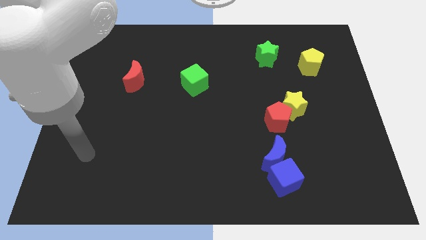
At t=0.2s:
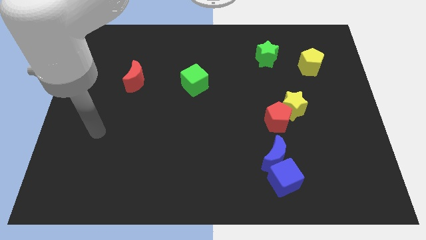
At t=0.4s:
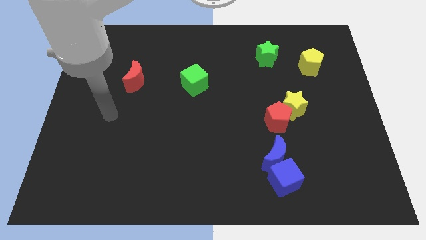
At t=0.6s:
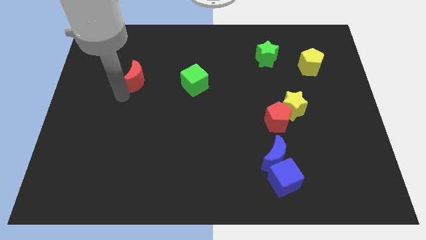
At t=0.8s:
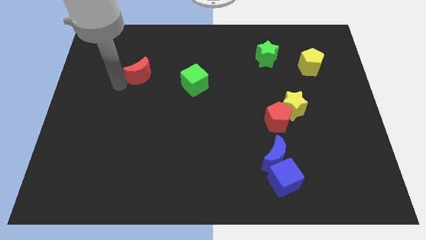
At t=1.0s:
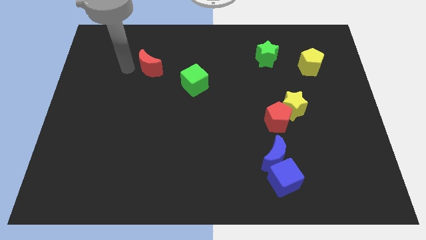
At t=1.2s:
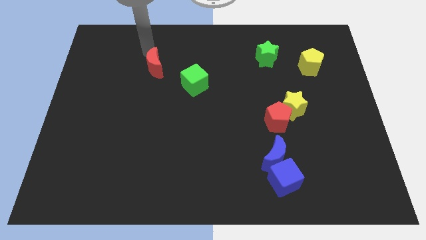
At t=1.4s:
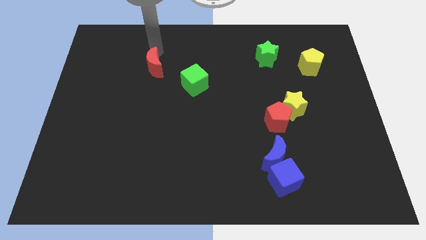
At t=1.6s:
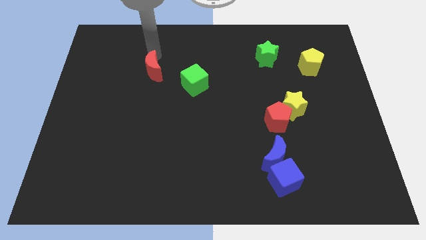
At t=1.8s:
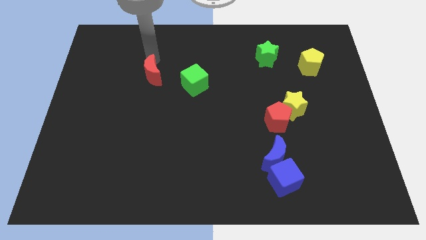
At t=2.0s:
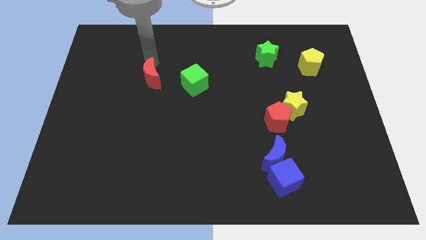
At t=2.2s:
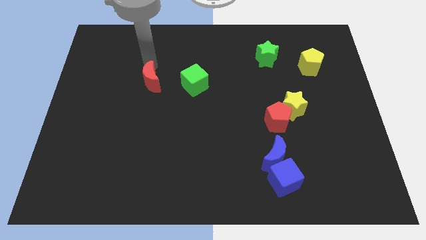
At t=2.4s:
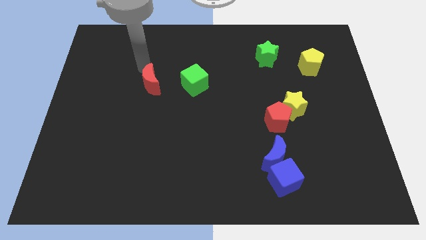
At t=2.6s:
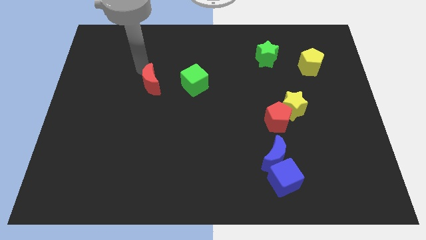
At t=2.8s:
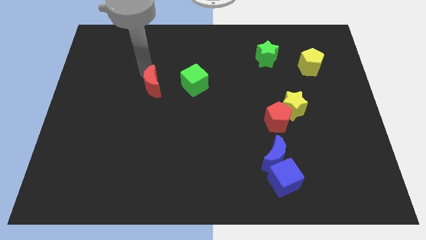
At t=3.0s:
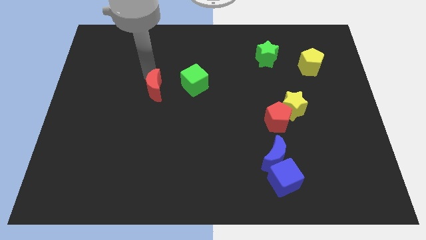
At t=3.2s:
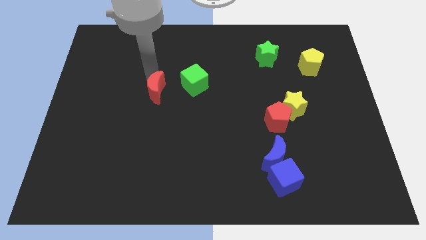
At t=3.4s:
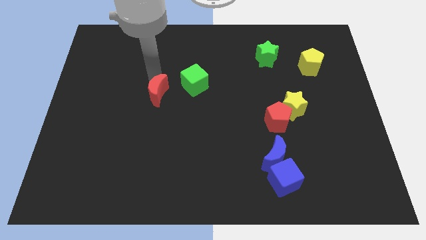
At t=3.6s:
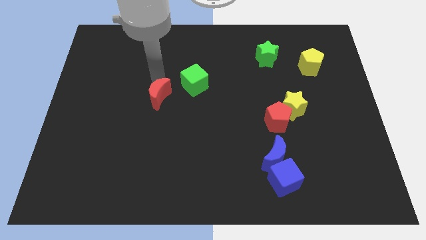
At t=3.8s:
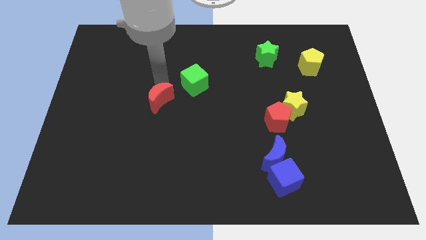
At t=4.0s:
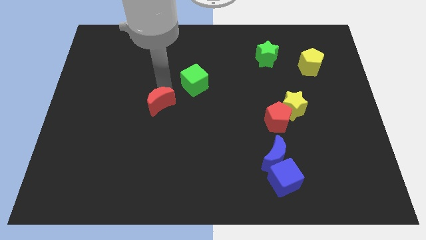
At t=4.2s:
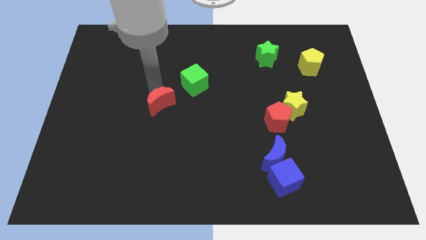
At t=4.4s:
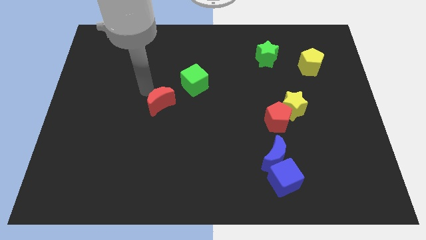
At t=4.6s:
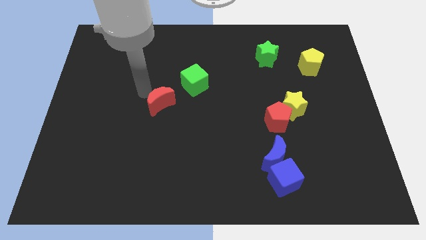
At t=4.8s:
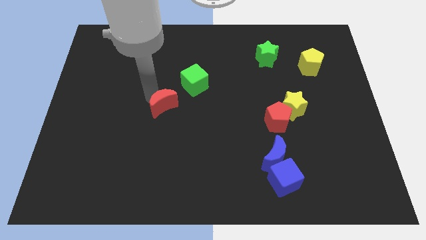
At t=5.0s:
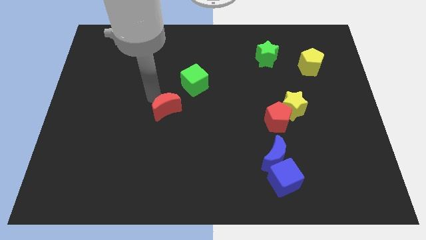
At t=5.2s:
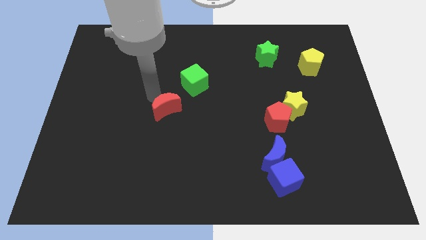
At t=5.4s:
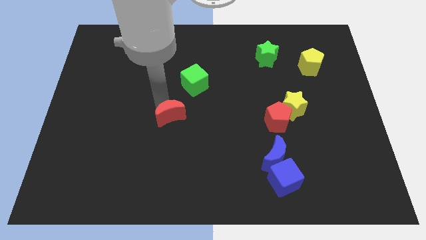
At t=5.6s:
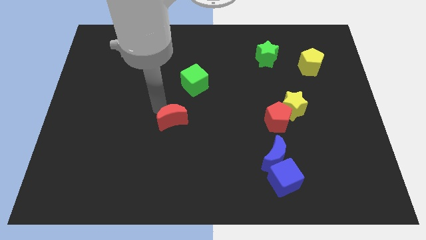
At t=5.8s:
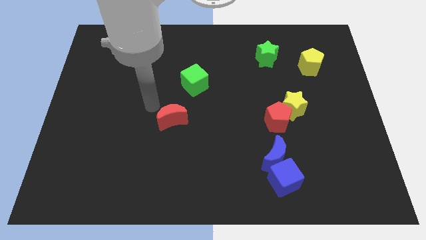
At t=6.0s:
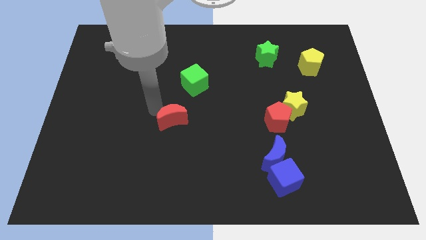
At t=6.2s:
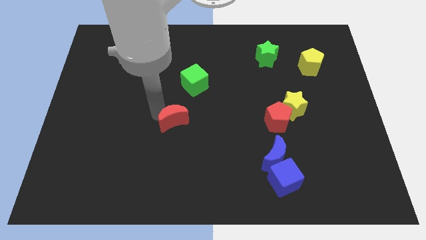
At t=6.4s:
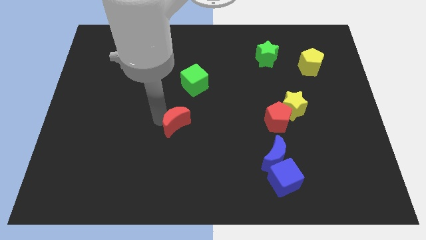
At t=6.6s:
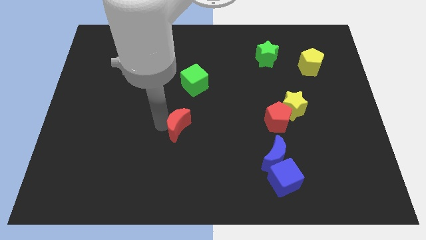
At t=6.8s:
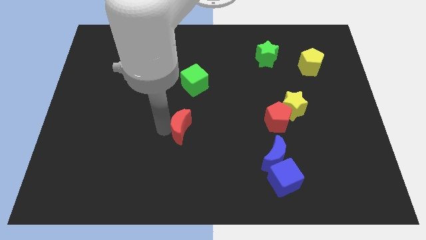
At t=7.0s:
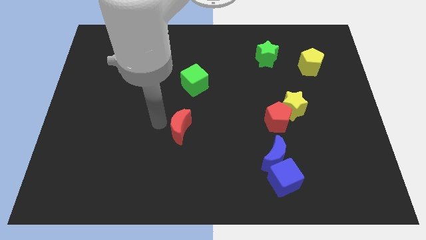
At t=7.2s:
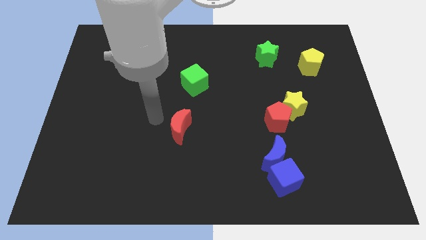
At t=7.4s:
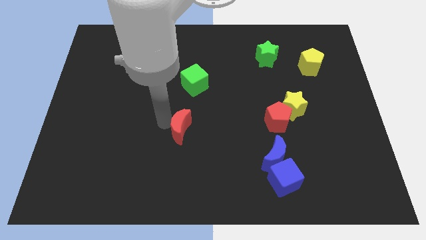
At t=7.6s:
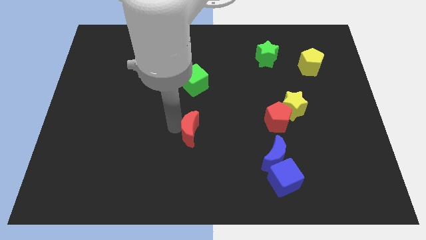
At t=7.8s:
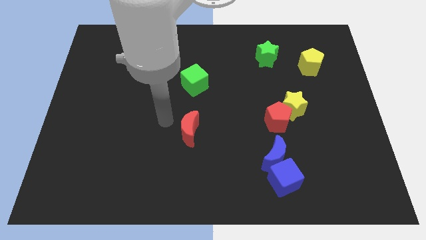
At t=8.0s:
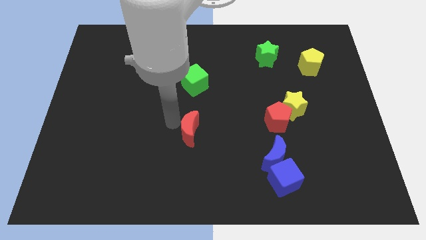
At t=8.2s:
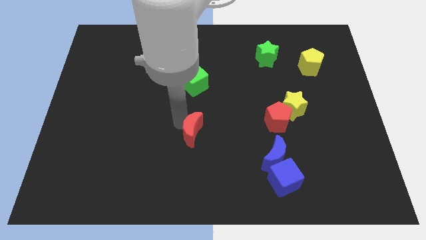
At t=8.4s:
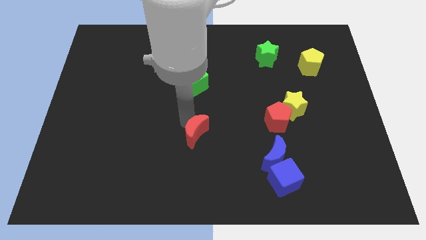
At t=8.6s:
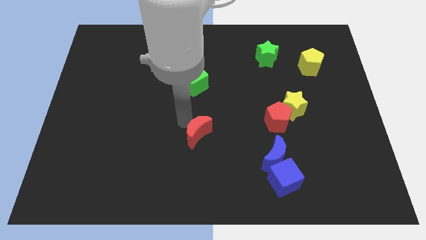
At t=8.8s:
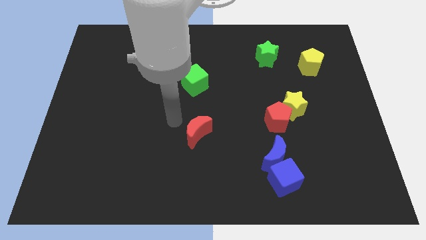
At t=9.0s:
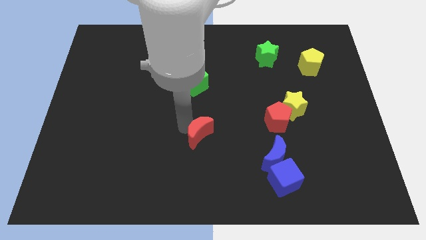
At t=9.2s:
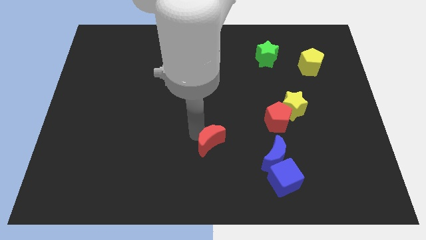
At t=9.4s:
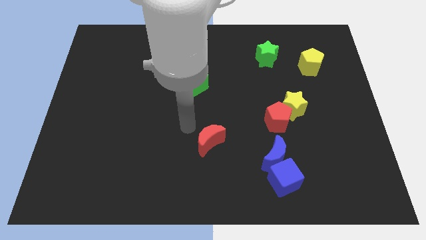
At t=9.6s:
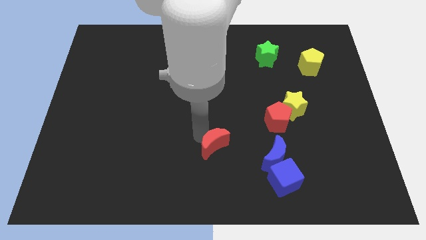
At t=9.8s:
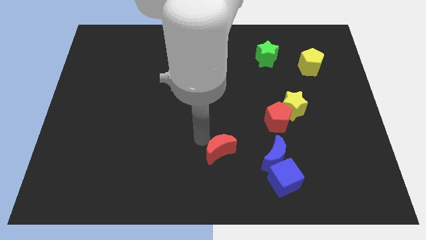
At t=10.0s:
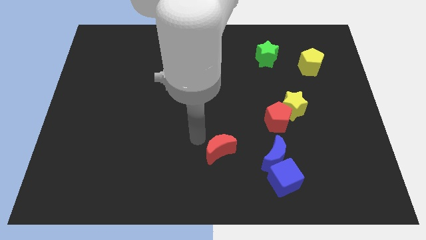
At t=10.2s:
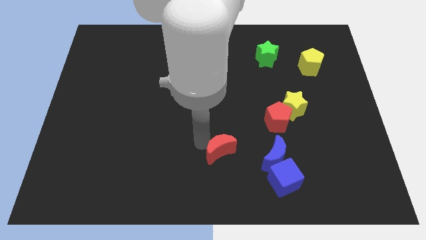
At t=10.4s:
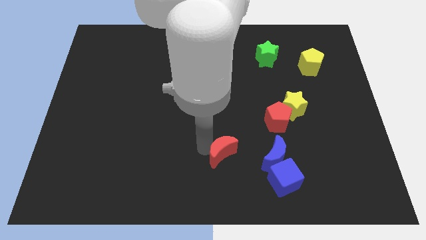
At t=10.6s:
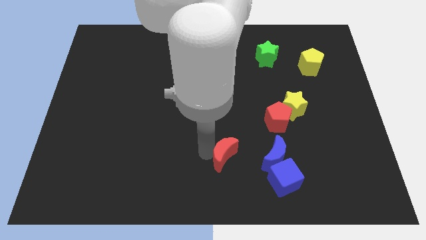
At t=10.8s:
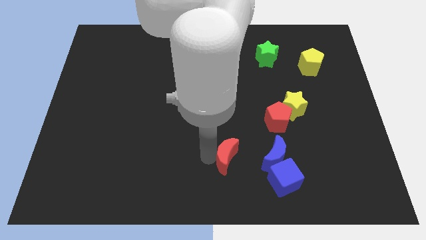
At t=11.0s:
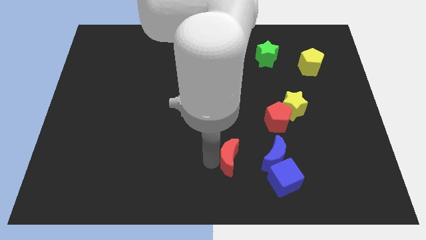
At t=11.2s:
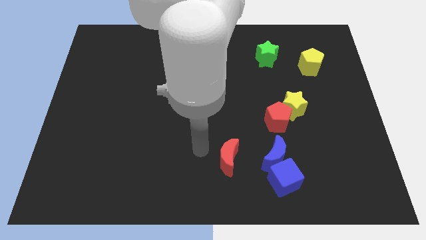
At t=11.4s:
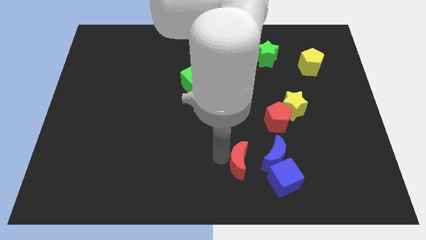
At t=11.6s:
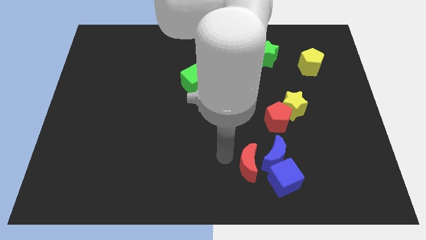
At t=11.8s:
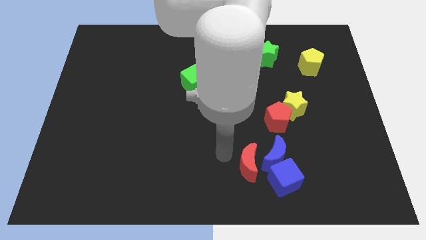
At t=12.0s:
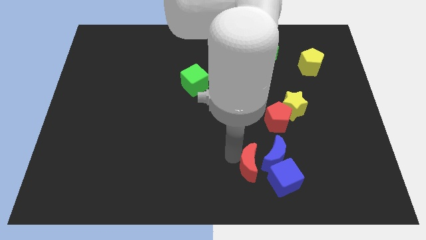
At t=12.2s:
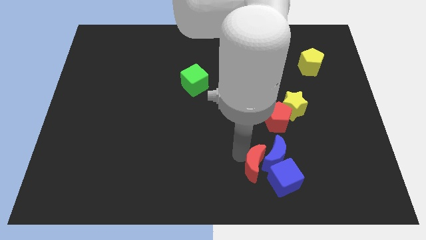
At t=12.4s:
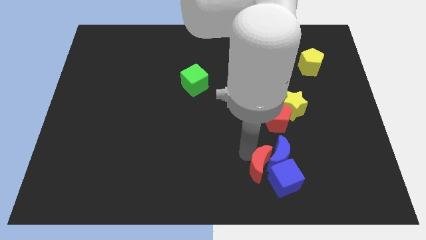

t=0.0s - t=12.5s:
push the red moon close to the blue cube

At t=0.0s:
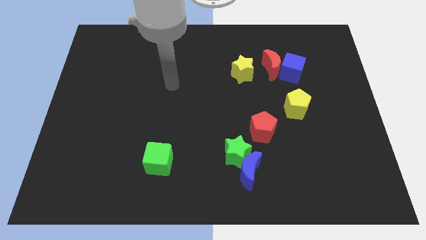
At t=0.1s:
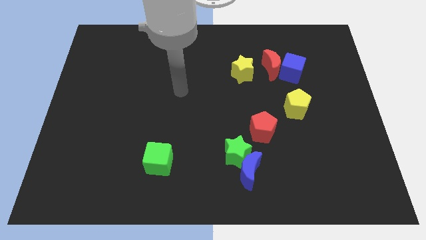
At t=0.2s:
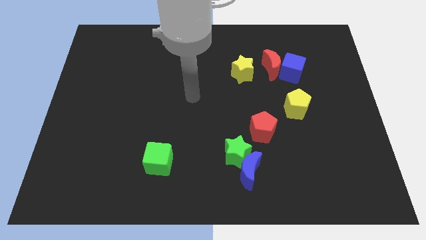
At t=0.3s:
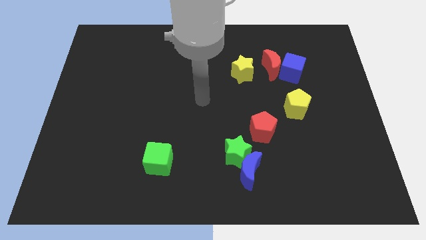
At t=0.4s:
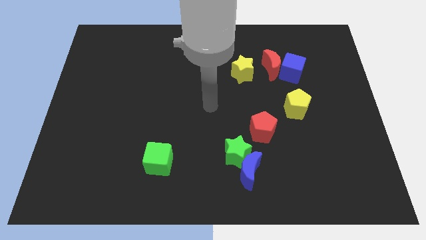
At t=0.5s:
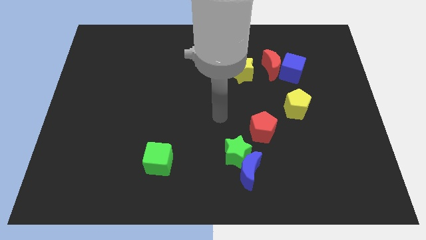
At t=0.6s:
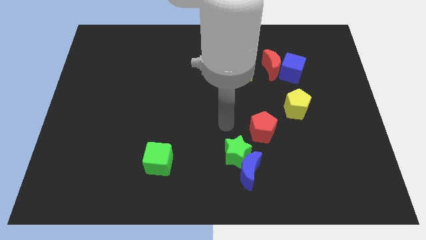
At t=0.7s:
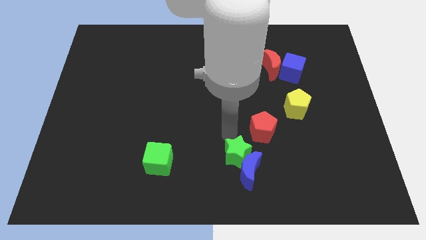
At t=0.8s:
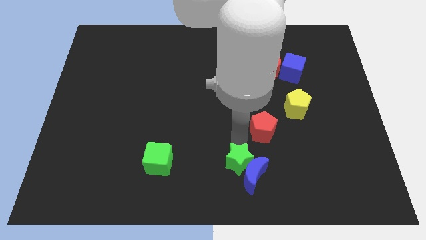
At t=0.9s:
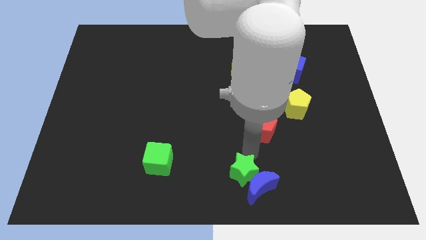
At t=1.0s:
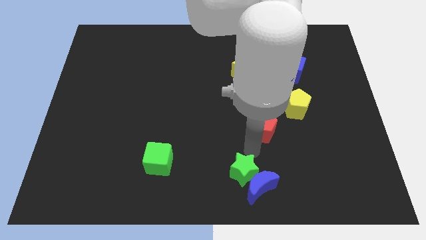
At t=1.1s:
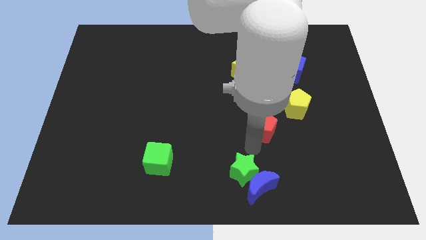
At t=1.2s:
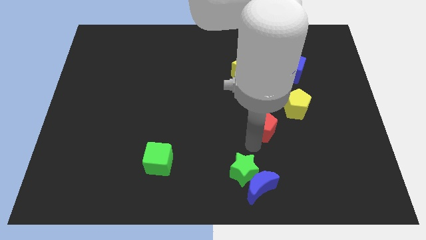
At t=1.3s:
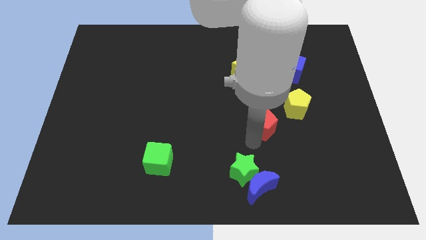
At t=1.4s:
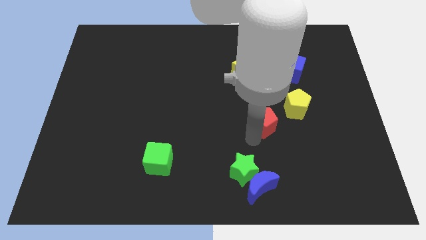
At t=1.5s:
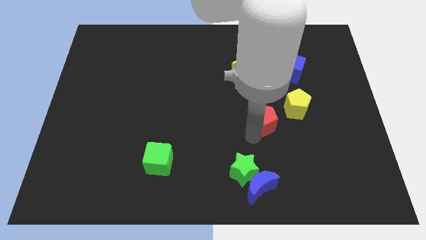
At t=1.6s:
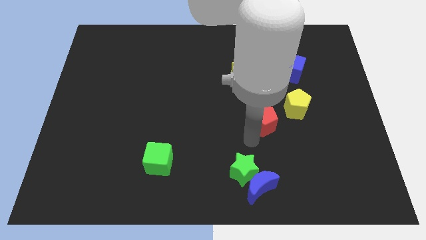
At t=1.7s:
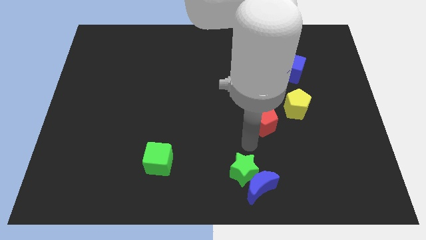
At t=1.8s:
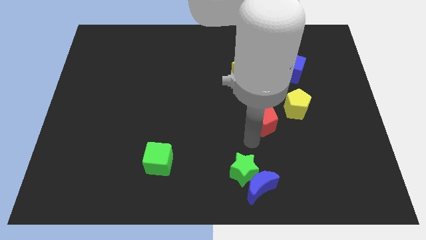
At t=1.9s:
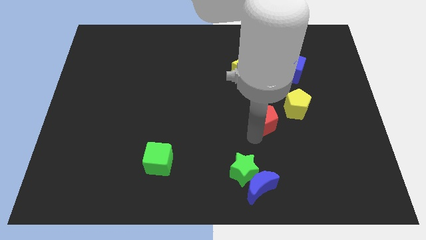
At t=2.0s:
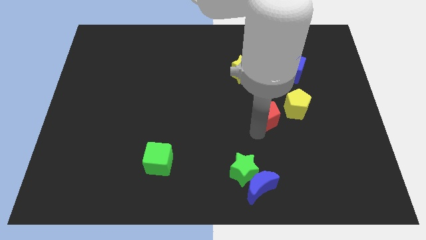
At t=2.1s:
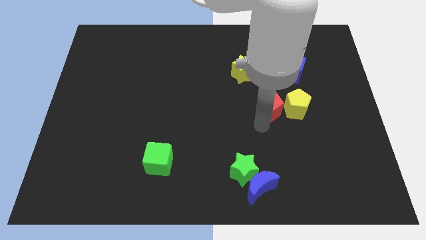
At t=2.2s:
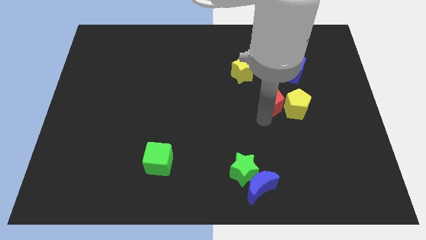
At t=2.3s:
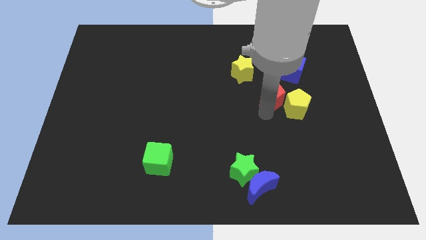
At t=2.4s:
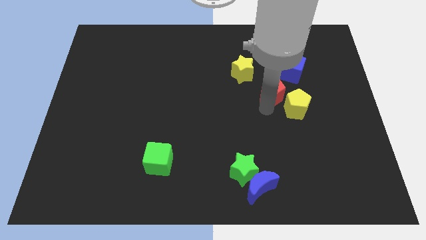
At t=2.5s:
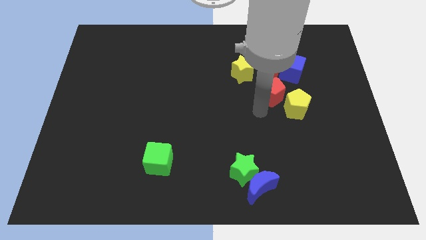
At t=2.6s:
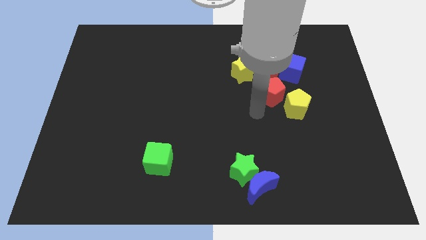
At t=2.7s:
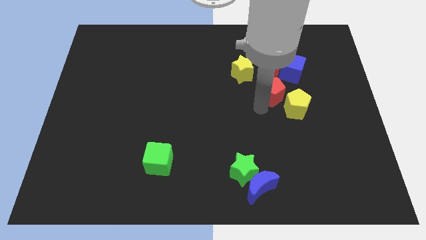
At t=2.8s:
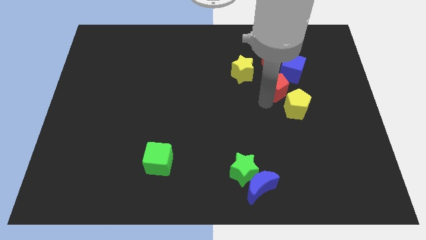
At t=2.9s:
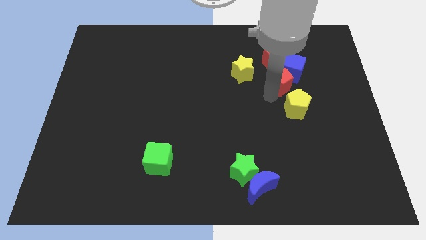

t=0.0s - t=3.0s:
slide the red pentagon to the blue cube
